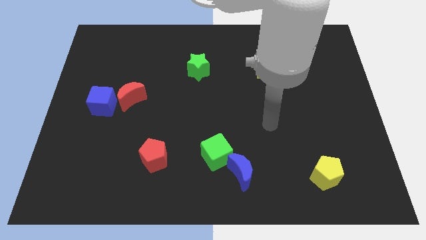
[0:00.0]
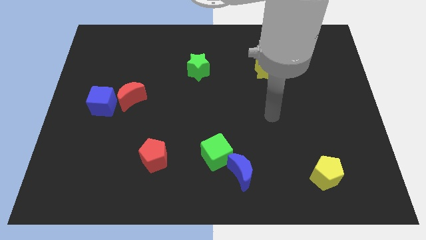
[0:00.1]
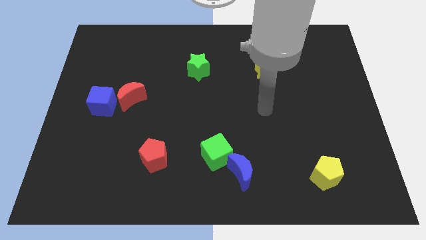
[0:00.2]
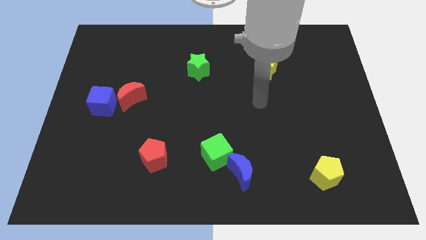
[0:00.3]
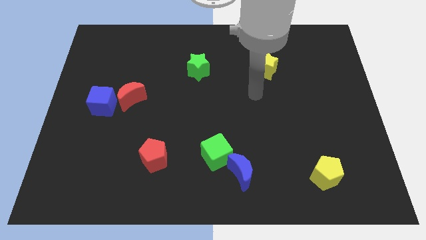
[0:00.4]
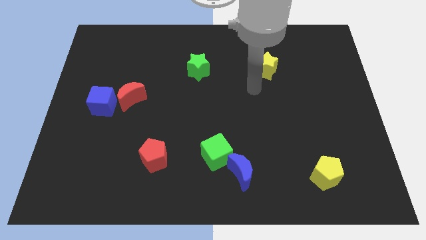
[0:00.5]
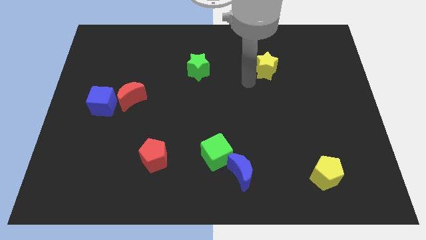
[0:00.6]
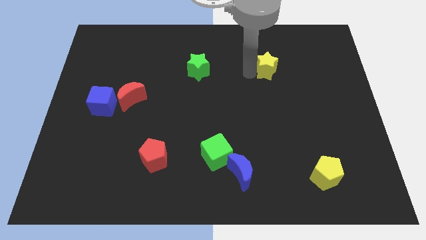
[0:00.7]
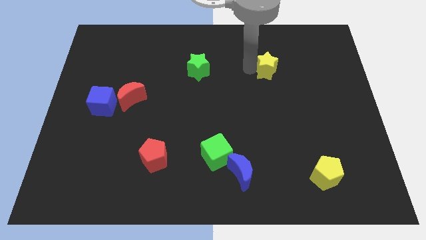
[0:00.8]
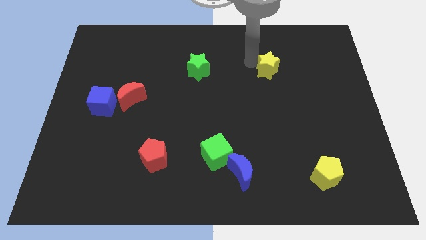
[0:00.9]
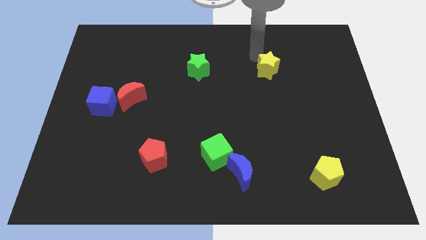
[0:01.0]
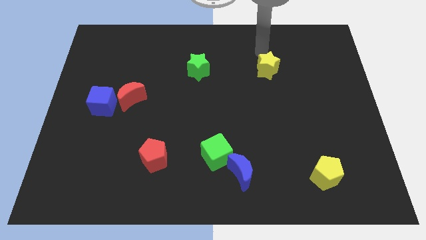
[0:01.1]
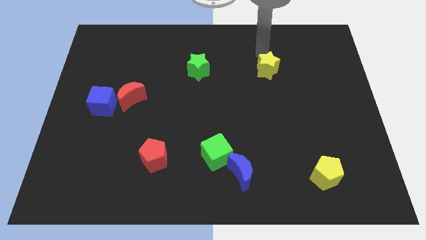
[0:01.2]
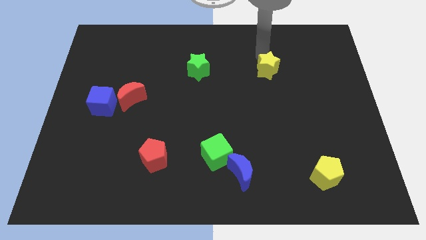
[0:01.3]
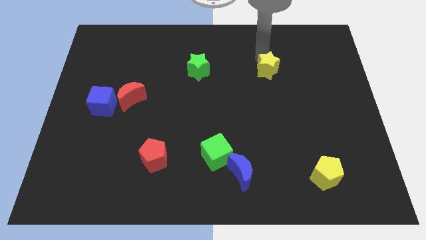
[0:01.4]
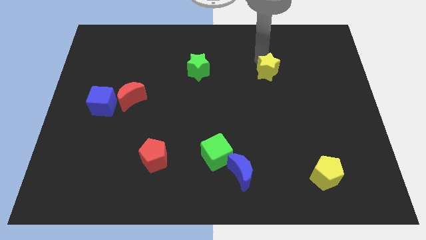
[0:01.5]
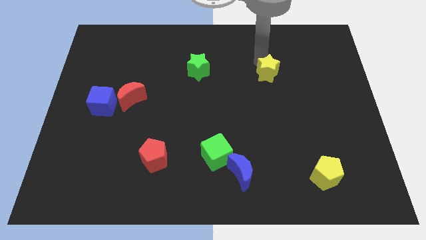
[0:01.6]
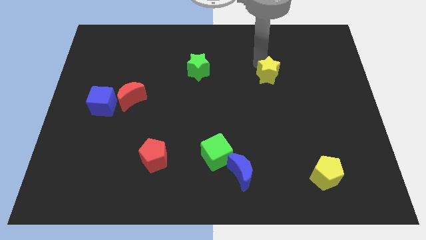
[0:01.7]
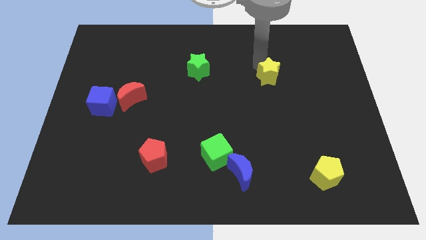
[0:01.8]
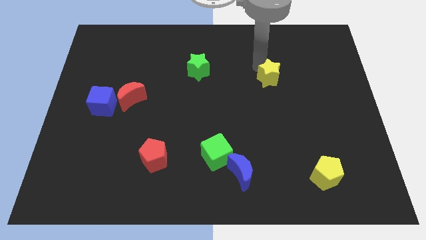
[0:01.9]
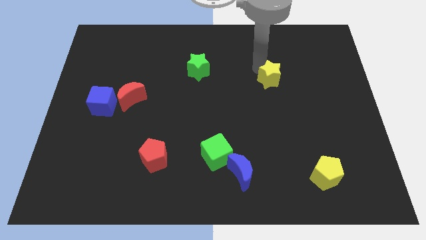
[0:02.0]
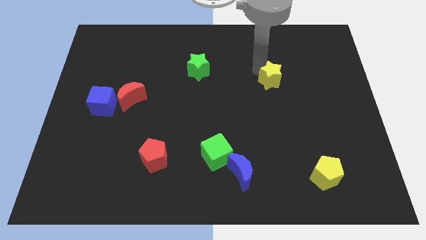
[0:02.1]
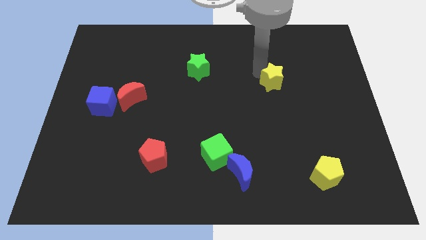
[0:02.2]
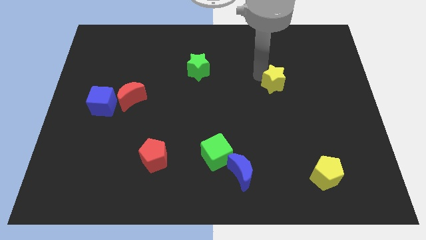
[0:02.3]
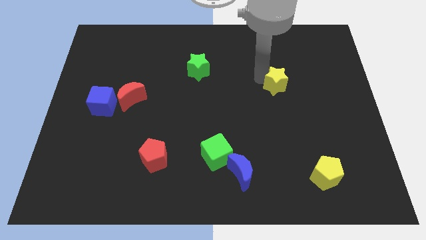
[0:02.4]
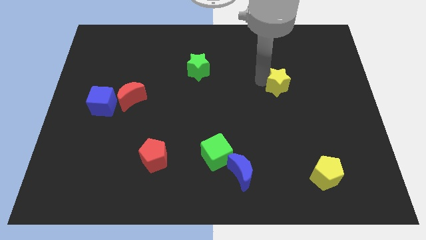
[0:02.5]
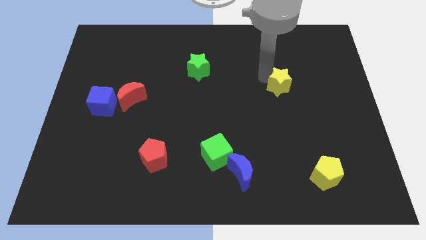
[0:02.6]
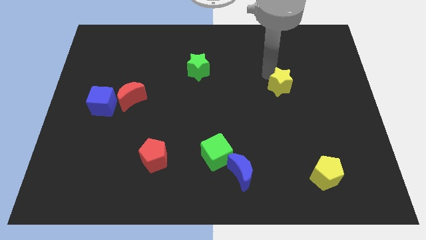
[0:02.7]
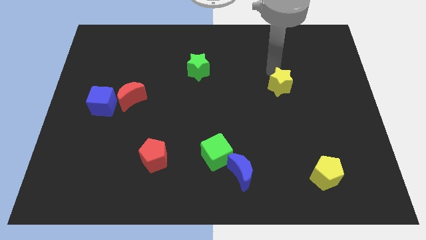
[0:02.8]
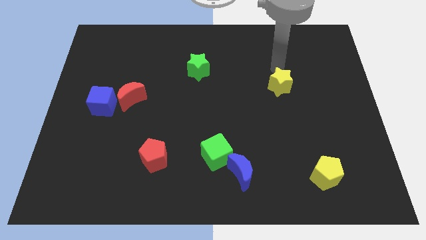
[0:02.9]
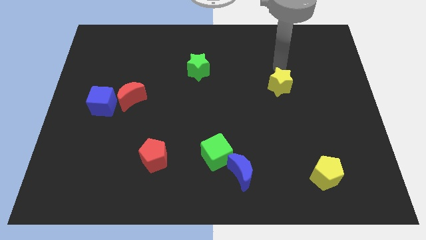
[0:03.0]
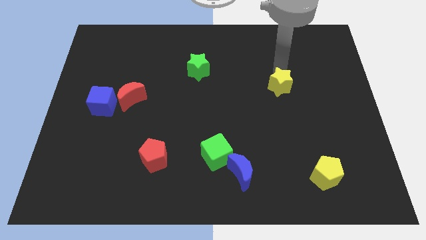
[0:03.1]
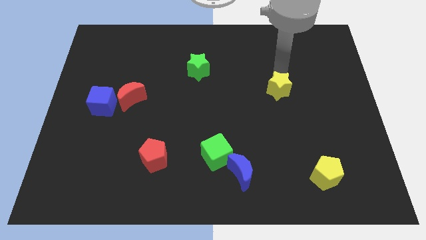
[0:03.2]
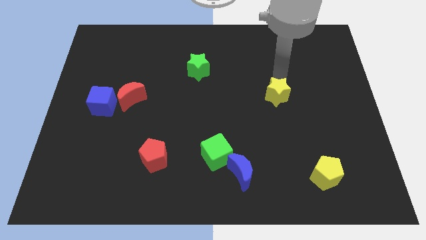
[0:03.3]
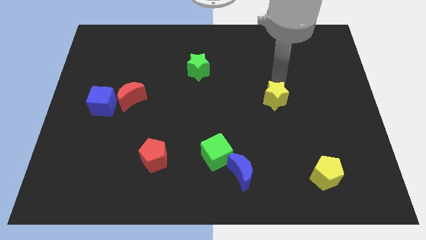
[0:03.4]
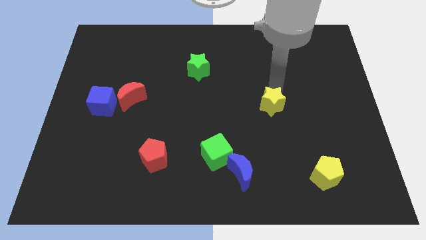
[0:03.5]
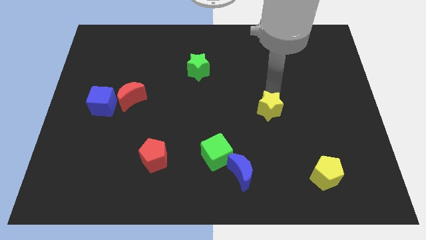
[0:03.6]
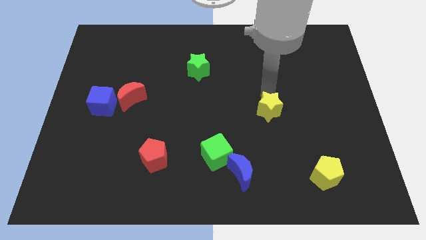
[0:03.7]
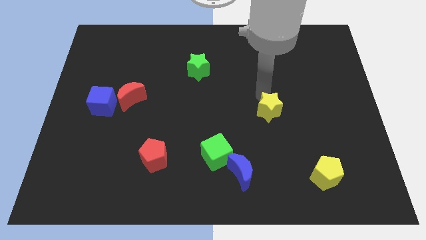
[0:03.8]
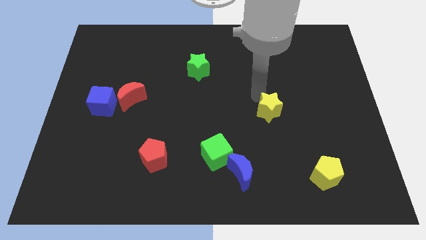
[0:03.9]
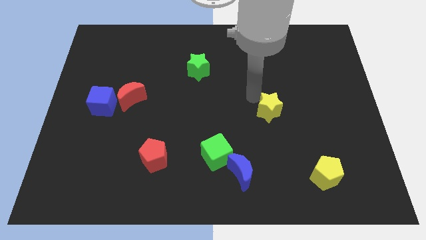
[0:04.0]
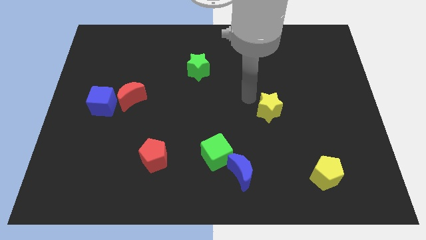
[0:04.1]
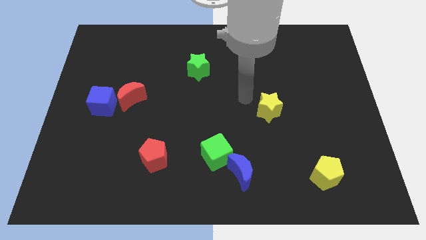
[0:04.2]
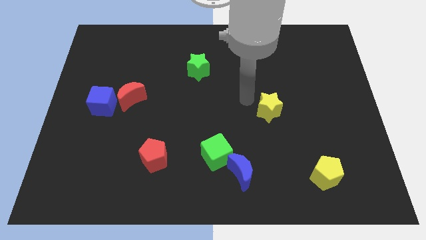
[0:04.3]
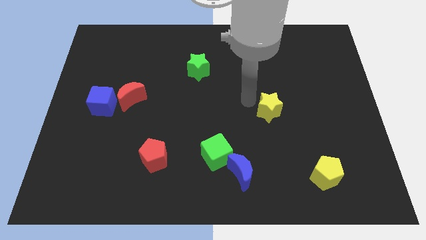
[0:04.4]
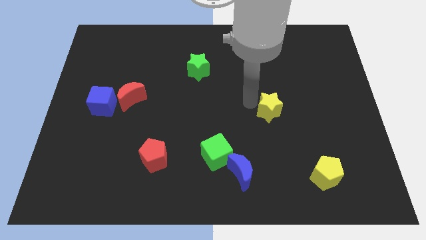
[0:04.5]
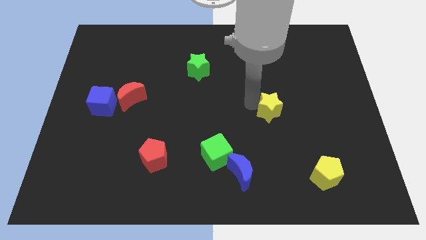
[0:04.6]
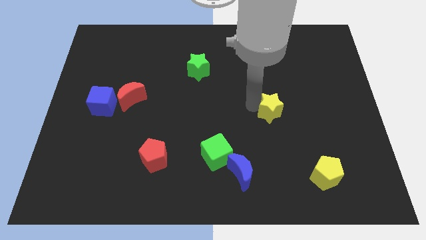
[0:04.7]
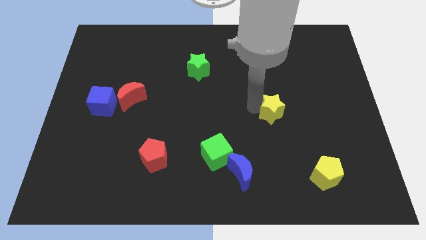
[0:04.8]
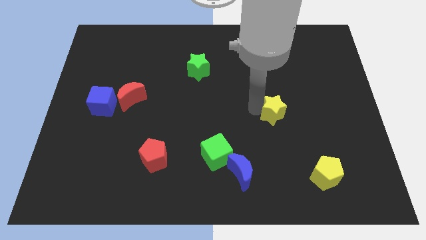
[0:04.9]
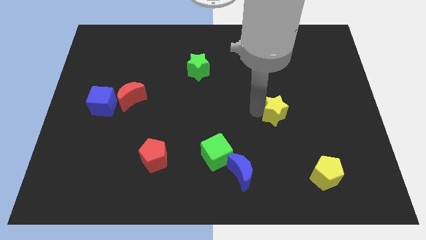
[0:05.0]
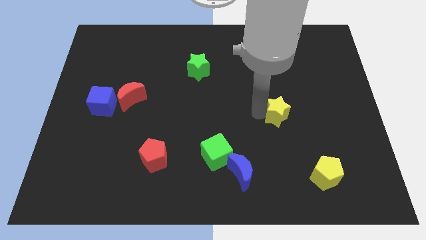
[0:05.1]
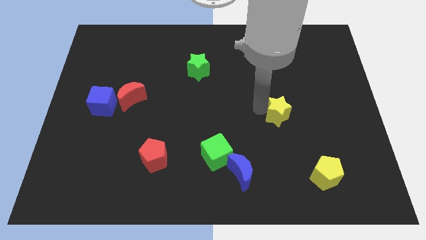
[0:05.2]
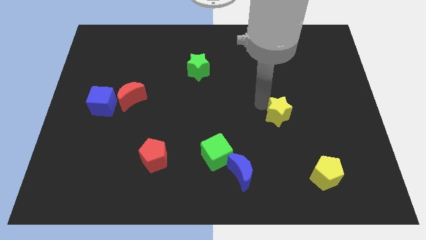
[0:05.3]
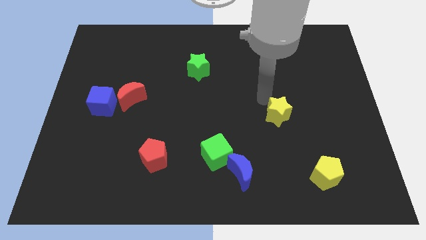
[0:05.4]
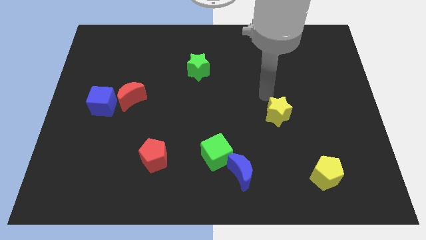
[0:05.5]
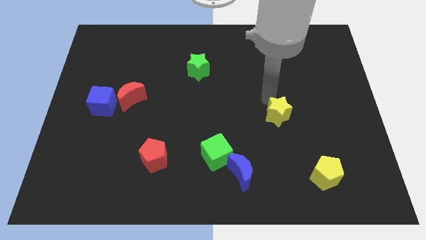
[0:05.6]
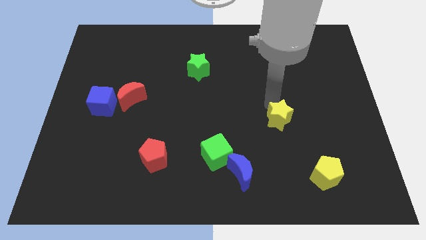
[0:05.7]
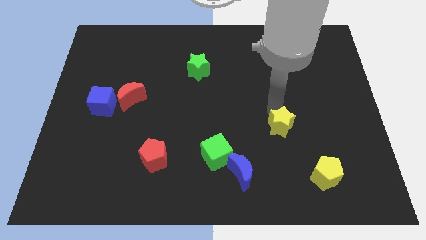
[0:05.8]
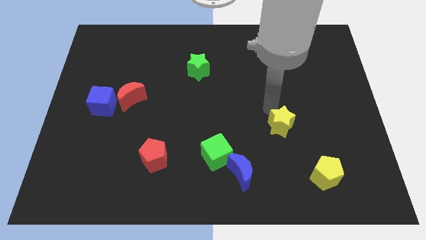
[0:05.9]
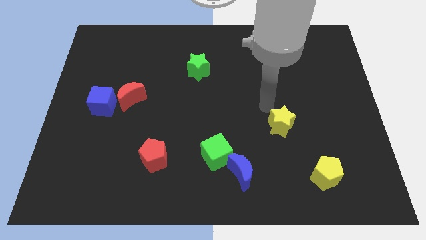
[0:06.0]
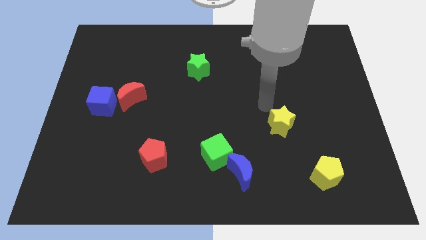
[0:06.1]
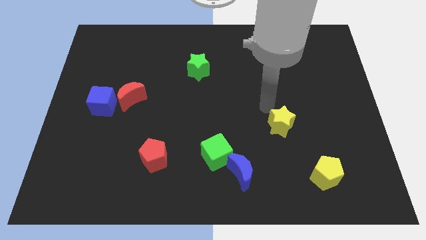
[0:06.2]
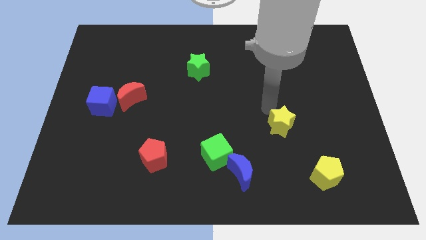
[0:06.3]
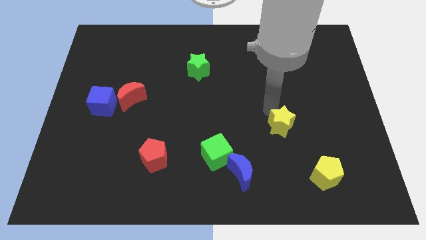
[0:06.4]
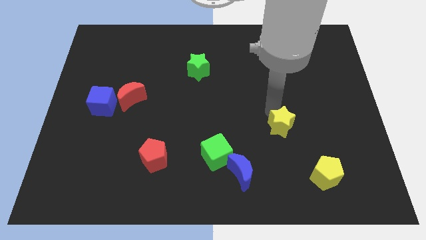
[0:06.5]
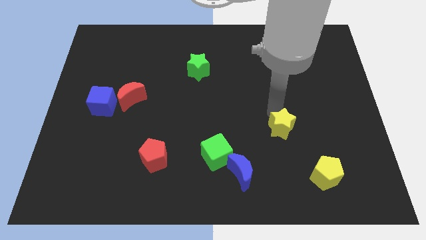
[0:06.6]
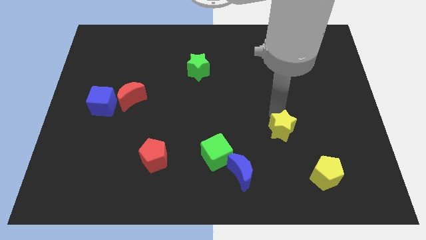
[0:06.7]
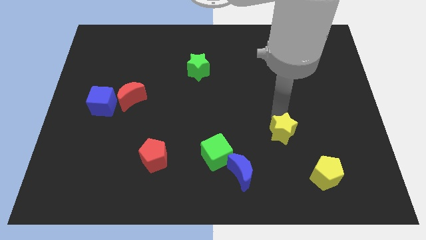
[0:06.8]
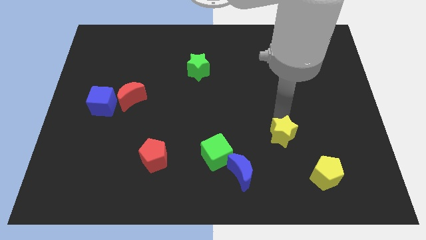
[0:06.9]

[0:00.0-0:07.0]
put the yellow star to the top left side of the yellow pentagon
